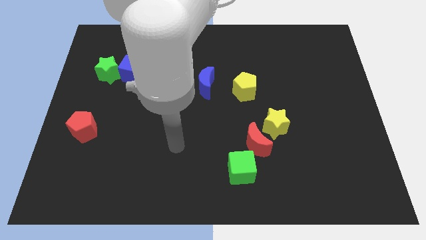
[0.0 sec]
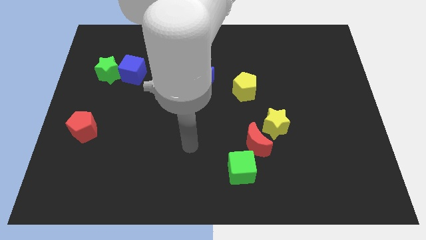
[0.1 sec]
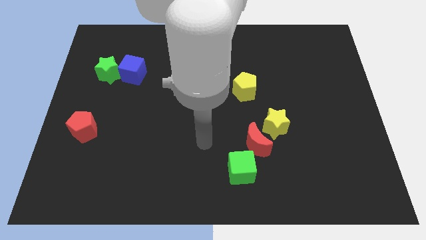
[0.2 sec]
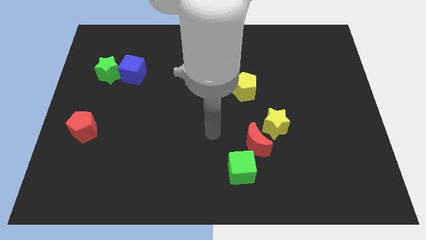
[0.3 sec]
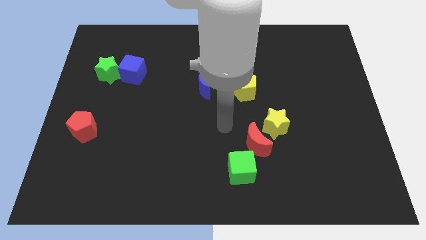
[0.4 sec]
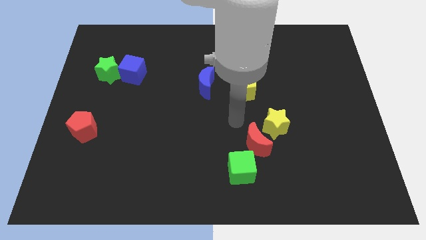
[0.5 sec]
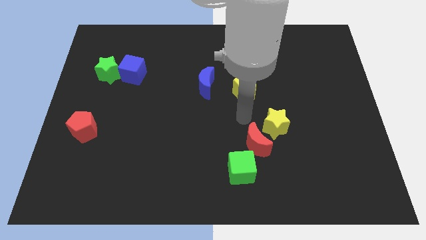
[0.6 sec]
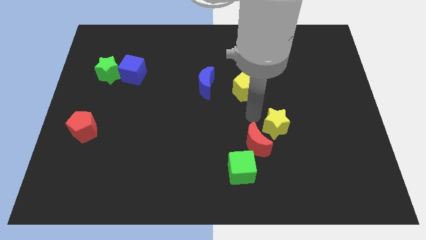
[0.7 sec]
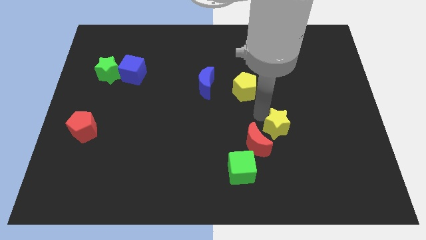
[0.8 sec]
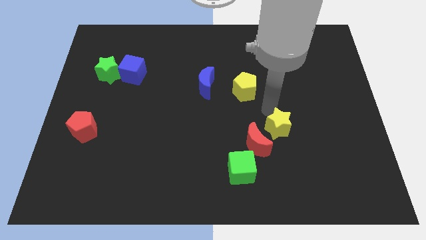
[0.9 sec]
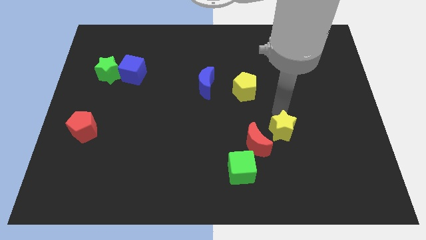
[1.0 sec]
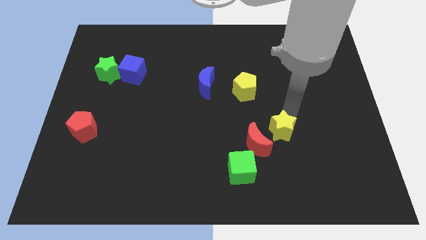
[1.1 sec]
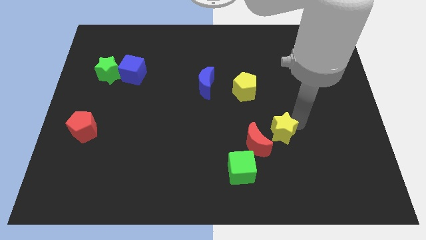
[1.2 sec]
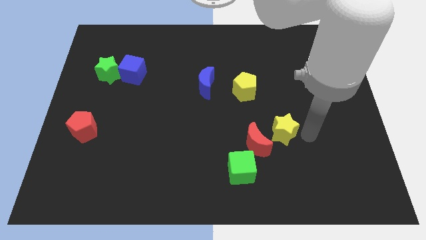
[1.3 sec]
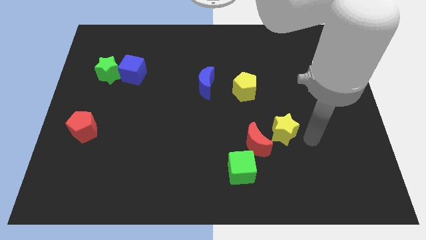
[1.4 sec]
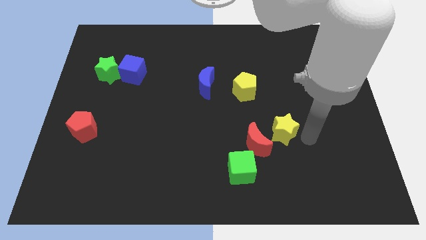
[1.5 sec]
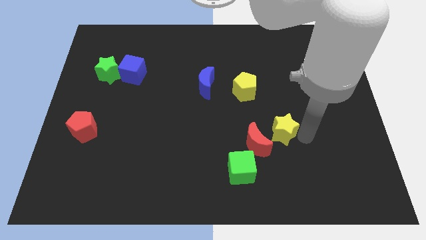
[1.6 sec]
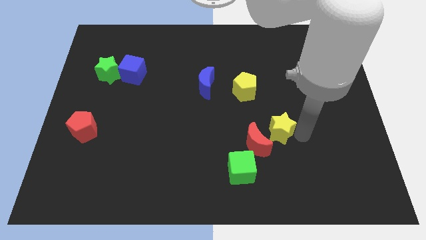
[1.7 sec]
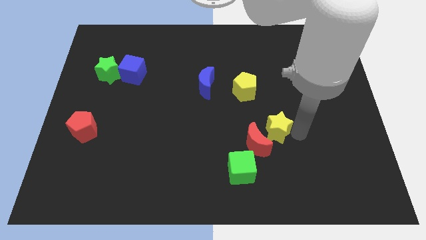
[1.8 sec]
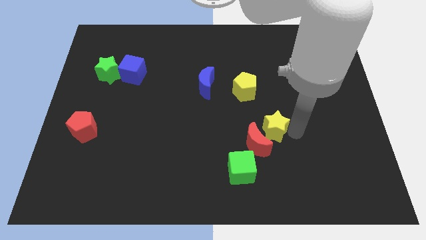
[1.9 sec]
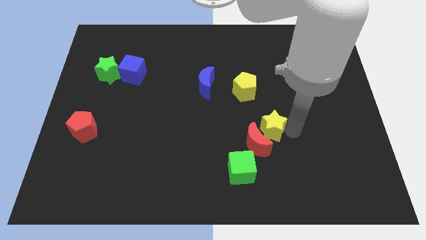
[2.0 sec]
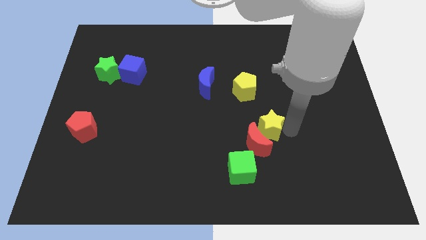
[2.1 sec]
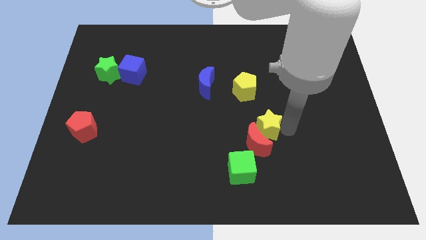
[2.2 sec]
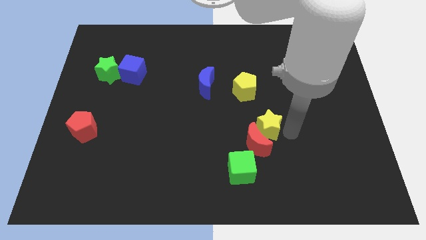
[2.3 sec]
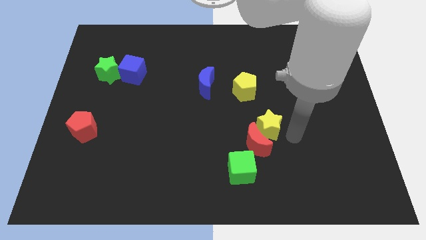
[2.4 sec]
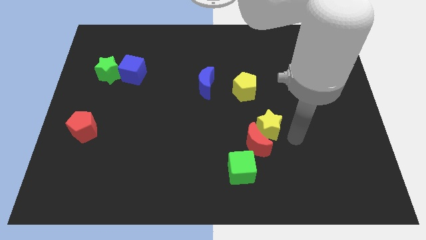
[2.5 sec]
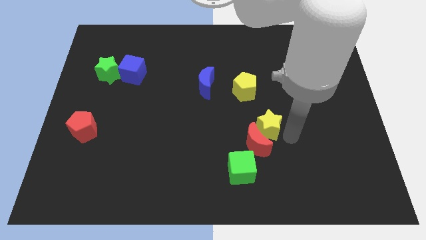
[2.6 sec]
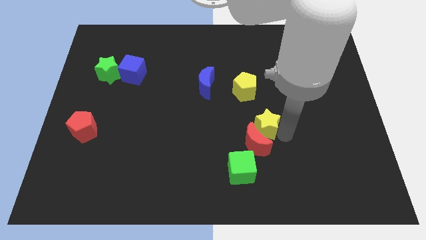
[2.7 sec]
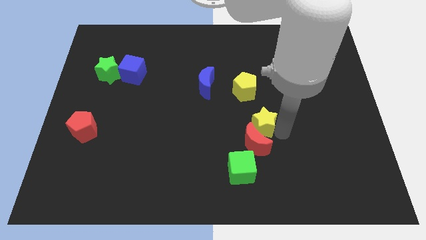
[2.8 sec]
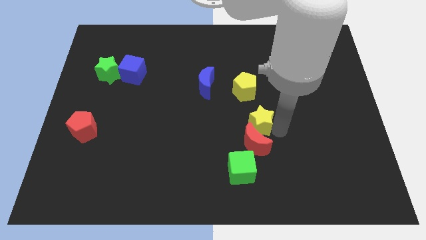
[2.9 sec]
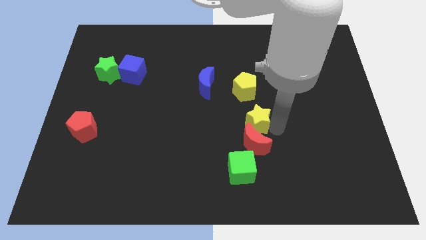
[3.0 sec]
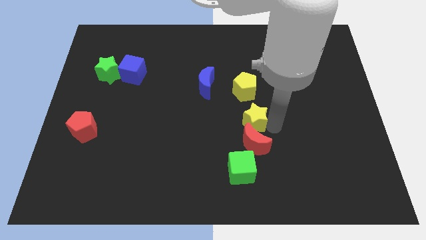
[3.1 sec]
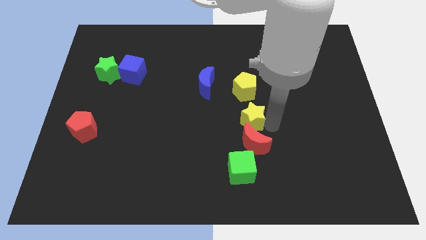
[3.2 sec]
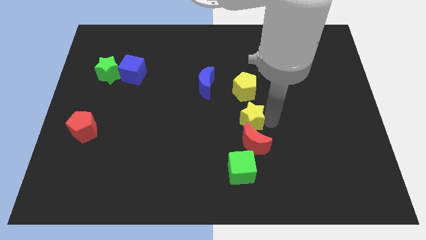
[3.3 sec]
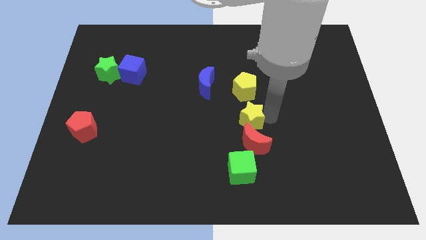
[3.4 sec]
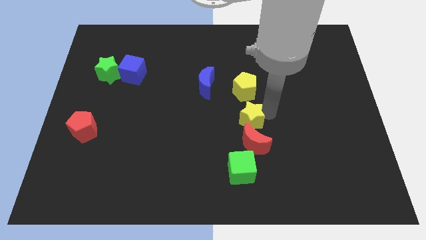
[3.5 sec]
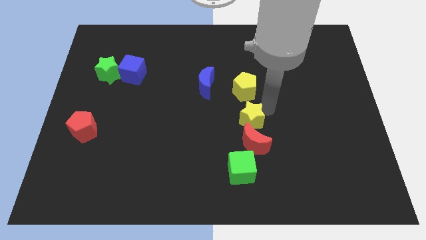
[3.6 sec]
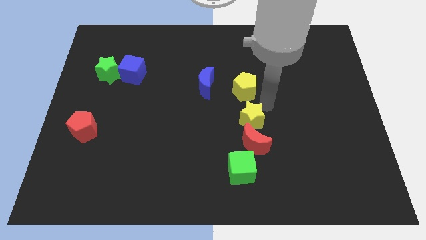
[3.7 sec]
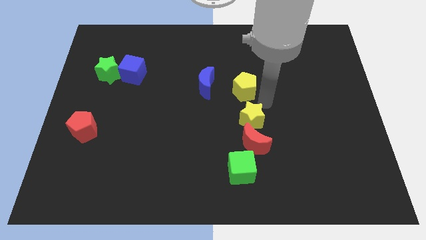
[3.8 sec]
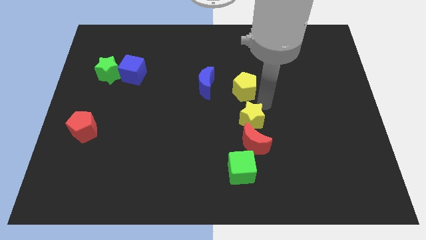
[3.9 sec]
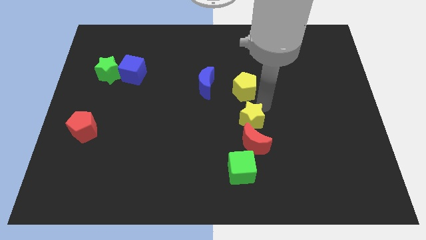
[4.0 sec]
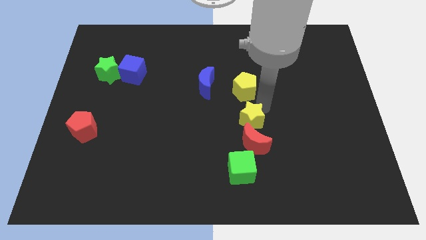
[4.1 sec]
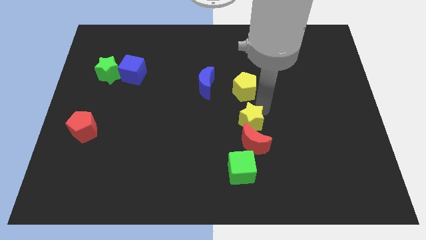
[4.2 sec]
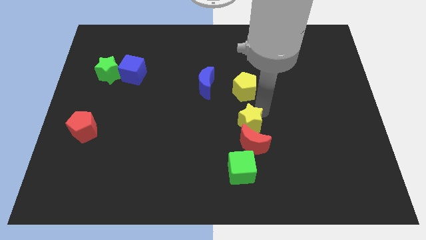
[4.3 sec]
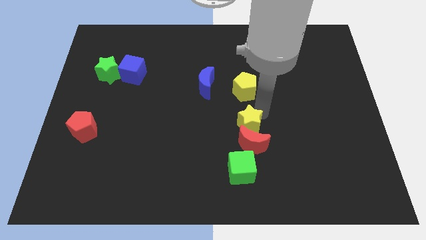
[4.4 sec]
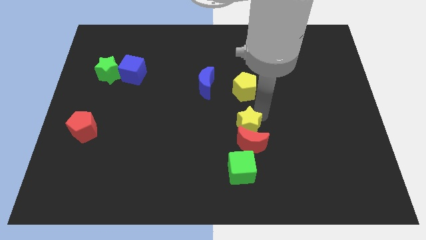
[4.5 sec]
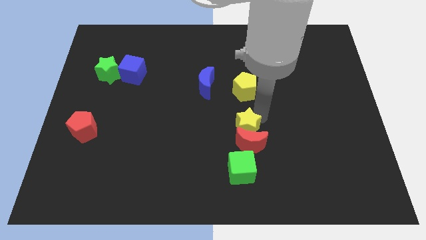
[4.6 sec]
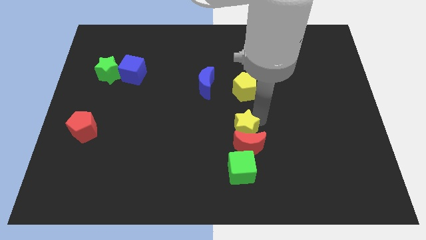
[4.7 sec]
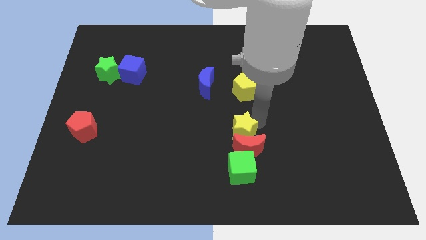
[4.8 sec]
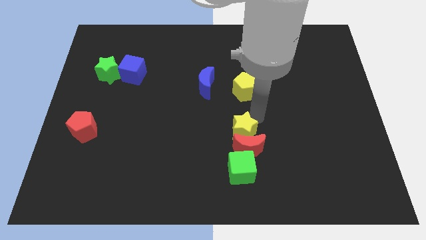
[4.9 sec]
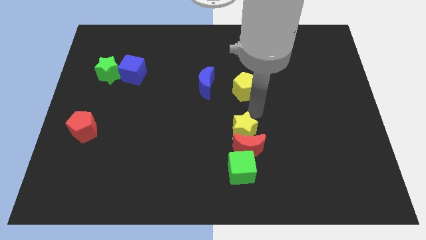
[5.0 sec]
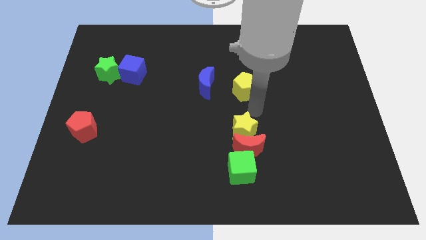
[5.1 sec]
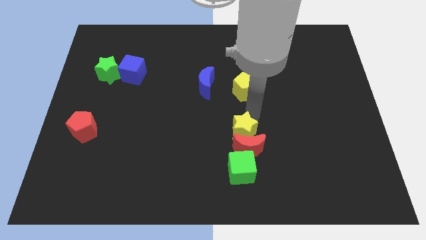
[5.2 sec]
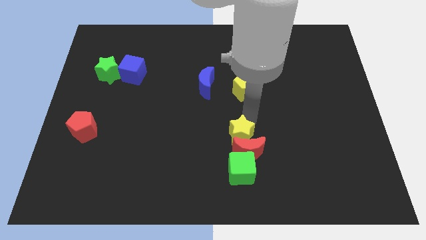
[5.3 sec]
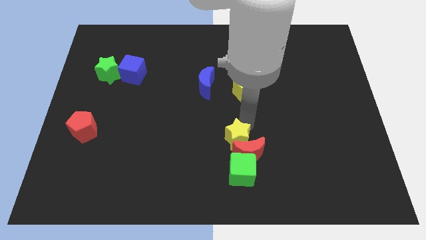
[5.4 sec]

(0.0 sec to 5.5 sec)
slide the yellow star downwards and to the left diagonally a little bit

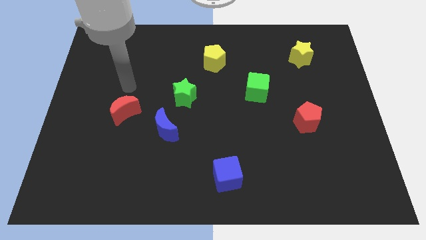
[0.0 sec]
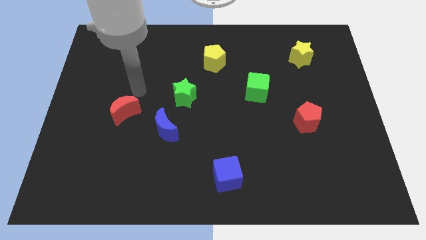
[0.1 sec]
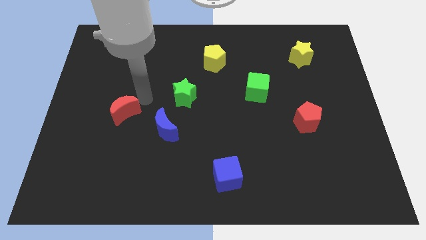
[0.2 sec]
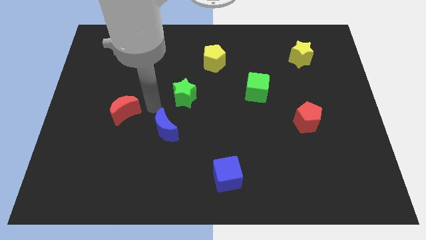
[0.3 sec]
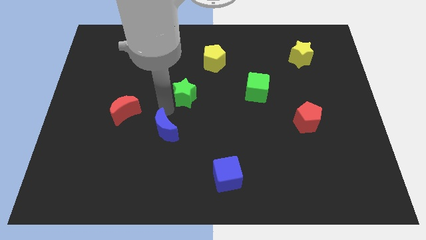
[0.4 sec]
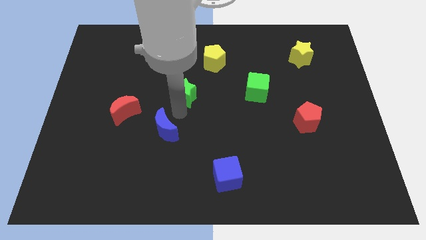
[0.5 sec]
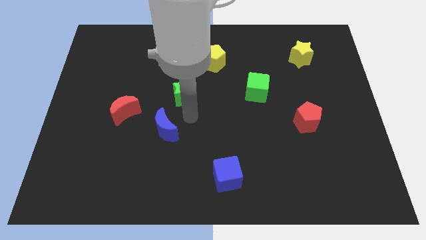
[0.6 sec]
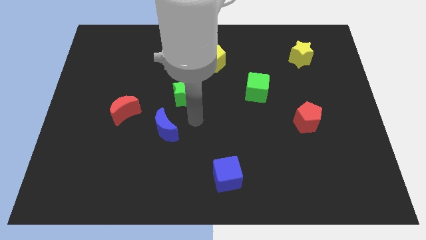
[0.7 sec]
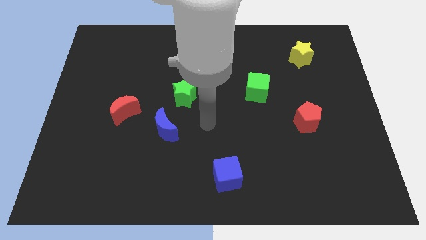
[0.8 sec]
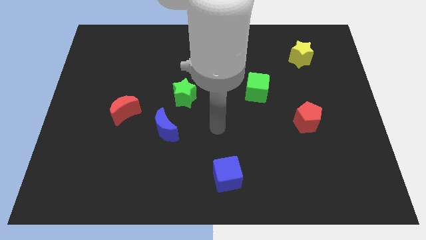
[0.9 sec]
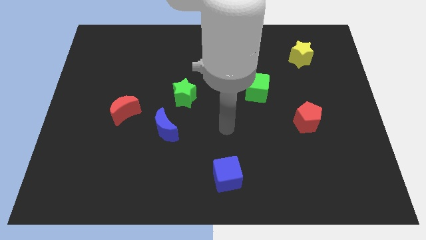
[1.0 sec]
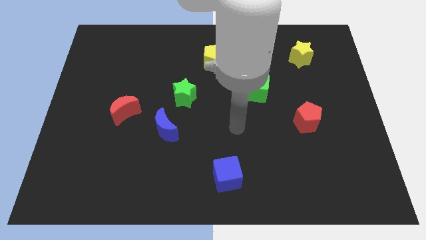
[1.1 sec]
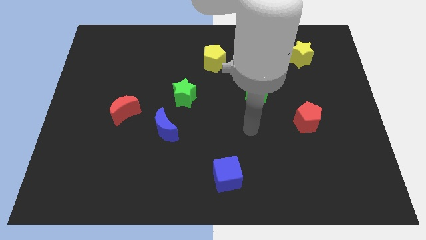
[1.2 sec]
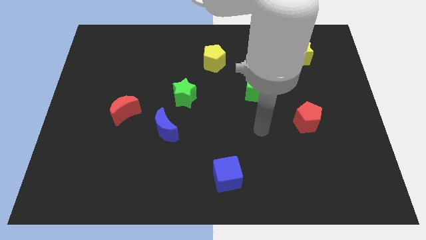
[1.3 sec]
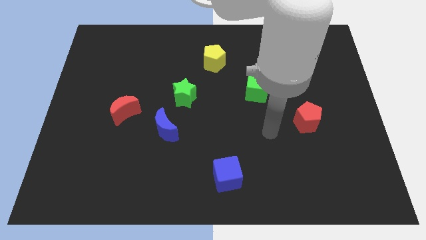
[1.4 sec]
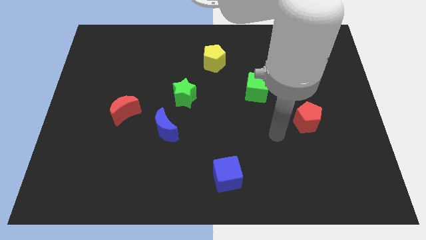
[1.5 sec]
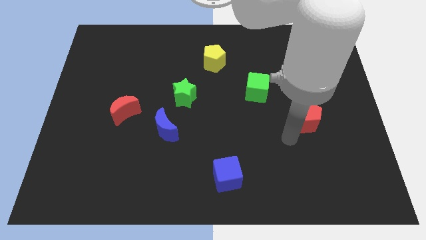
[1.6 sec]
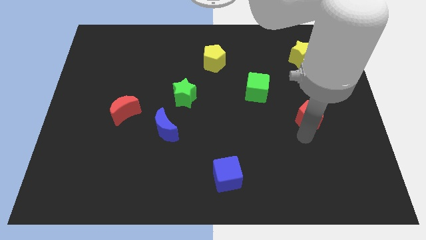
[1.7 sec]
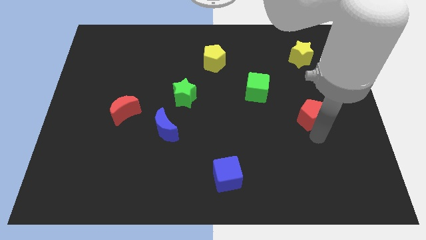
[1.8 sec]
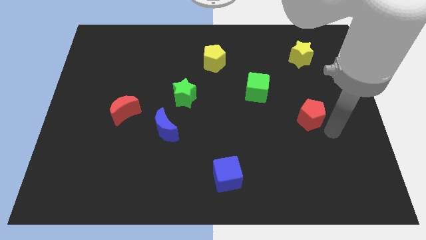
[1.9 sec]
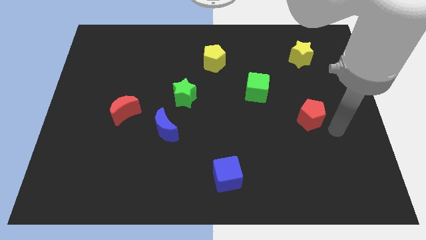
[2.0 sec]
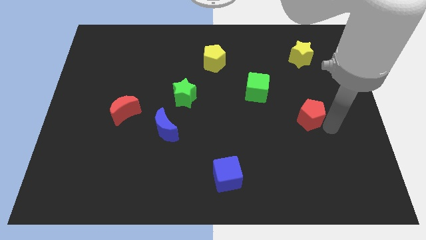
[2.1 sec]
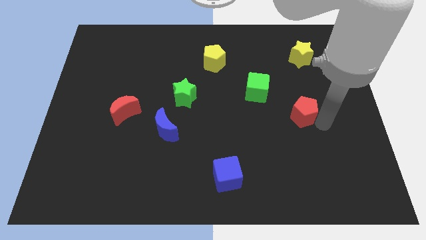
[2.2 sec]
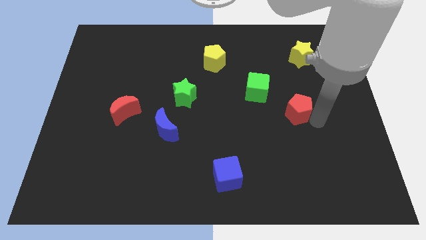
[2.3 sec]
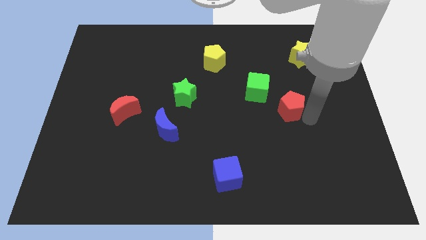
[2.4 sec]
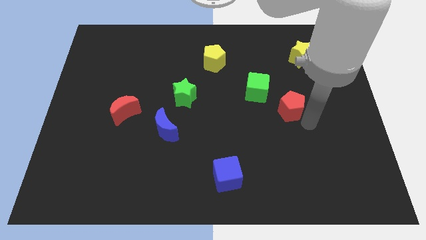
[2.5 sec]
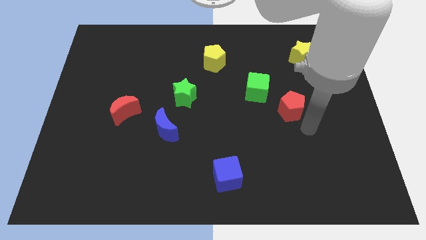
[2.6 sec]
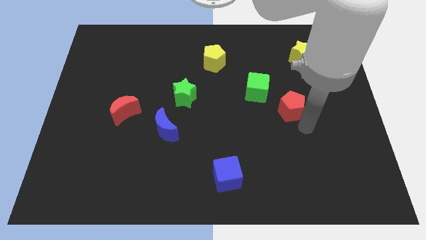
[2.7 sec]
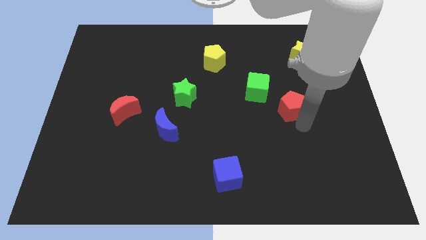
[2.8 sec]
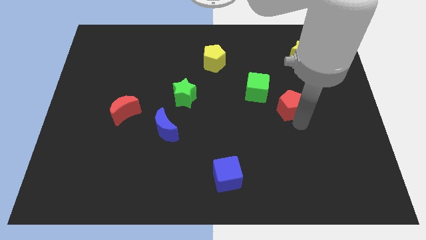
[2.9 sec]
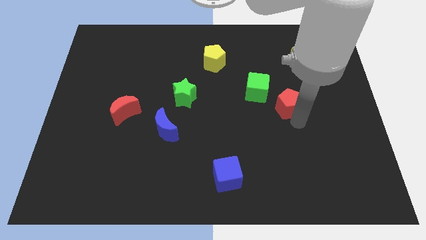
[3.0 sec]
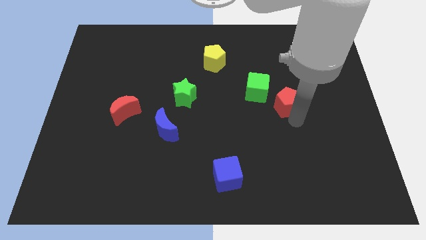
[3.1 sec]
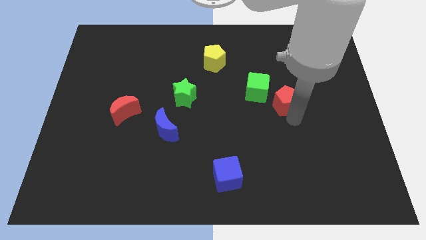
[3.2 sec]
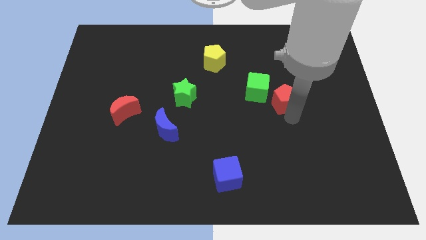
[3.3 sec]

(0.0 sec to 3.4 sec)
slightly slide the red pentagon upwards and left diagonally
